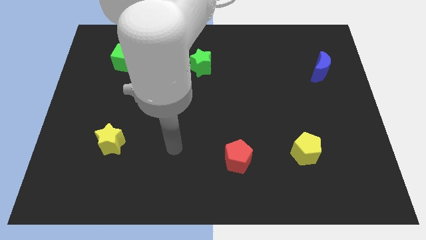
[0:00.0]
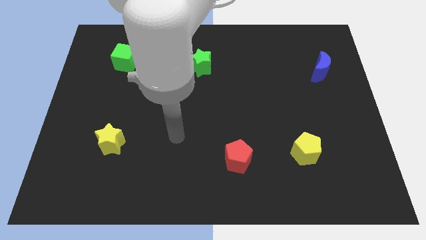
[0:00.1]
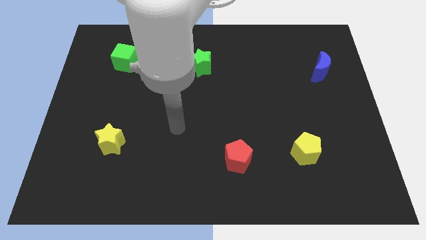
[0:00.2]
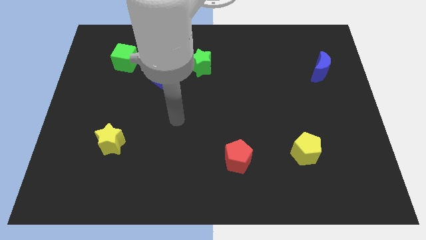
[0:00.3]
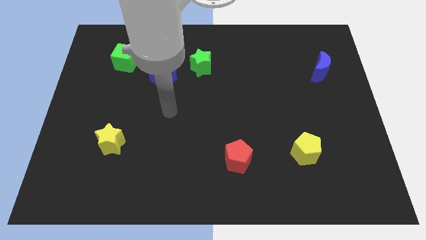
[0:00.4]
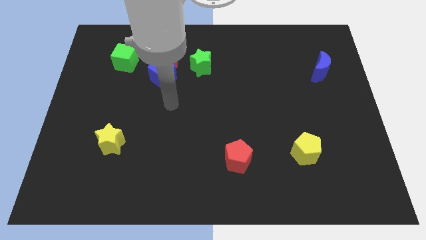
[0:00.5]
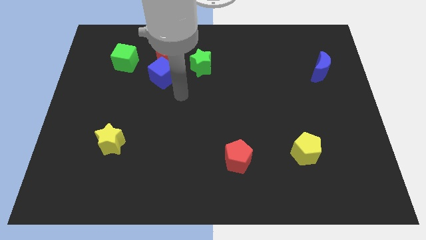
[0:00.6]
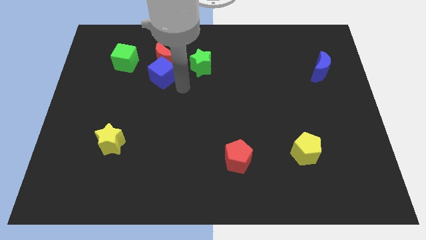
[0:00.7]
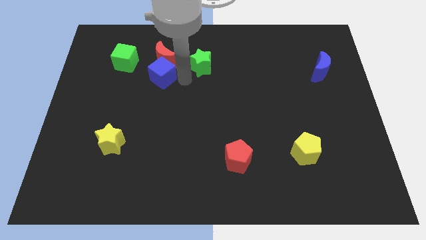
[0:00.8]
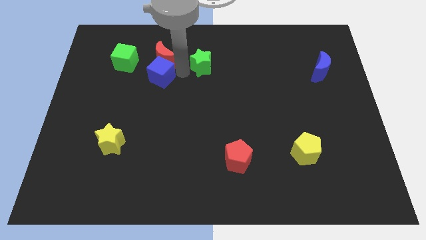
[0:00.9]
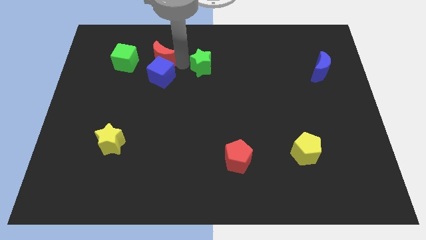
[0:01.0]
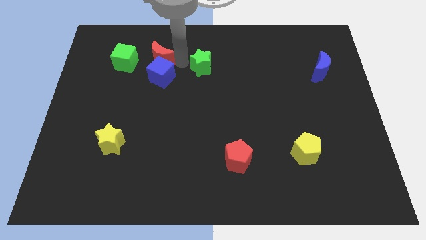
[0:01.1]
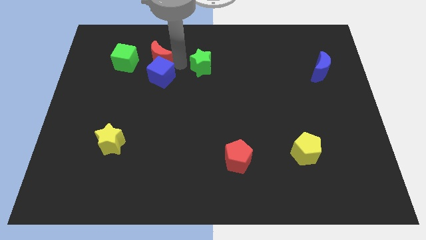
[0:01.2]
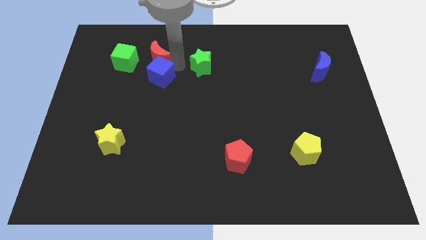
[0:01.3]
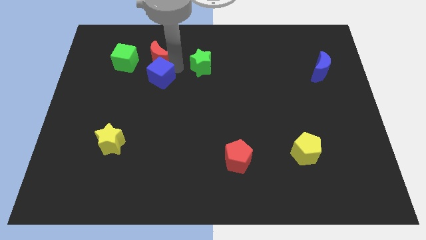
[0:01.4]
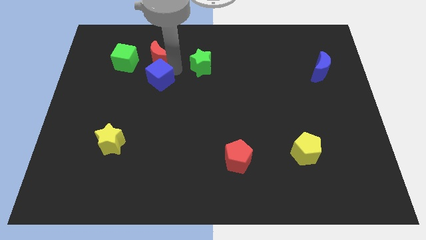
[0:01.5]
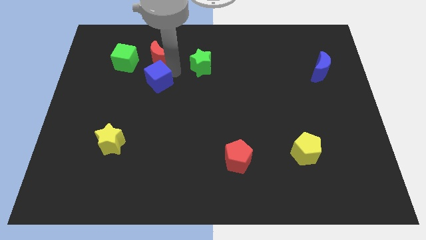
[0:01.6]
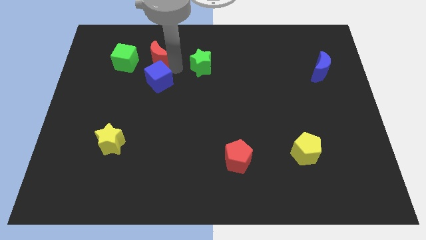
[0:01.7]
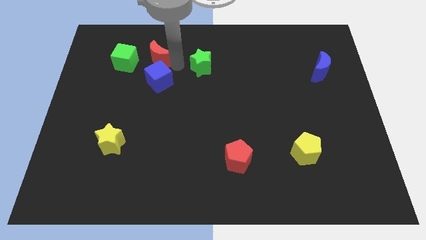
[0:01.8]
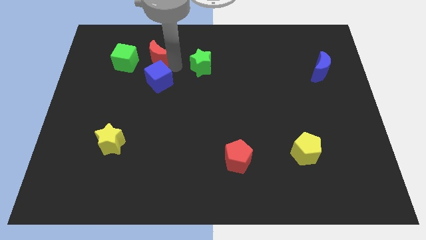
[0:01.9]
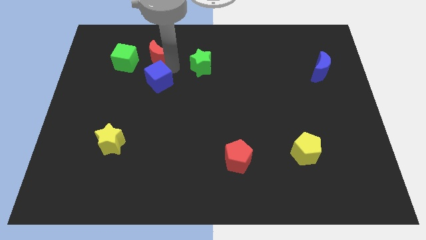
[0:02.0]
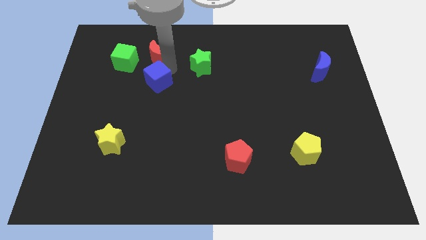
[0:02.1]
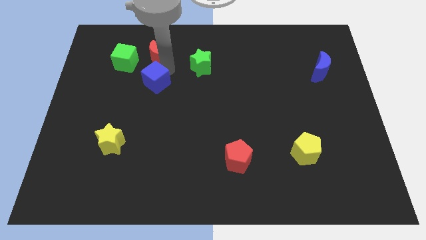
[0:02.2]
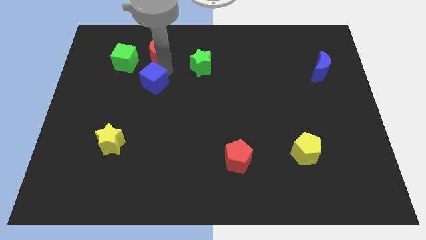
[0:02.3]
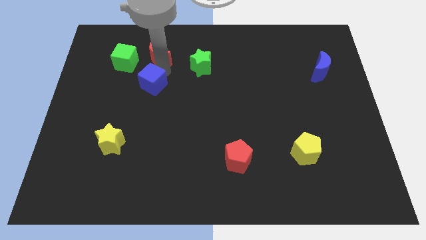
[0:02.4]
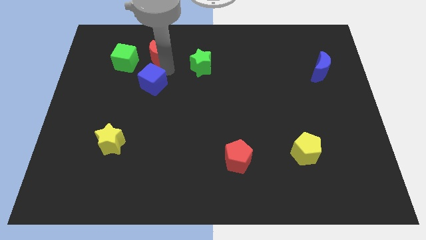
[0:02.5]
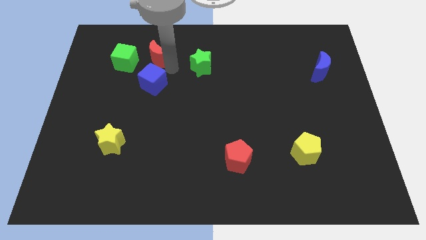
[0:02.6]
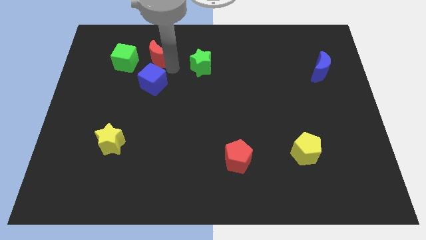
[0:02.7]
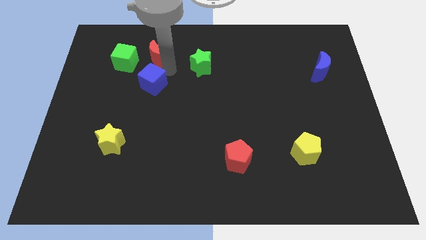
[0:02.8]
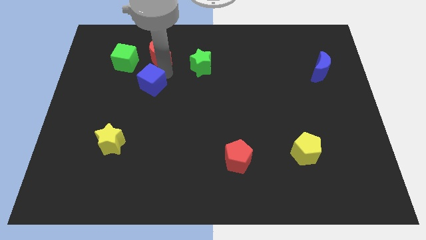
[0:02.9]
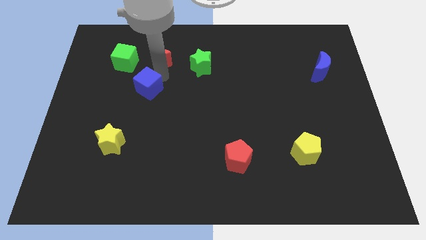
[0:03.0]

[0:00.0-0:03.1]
separate the blue cube from the red moon and green star

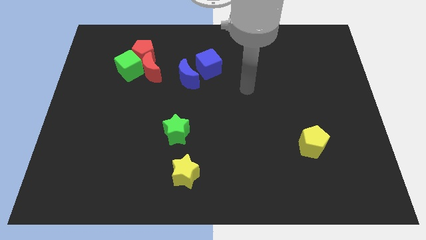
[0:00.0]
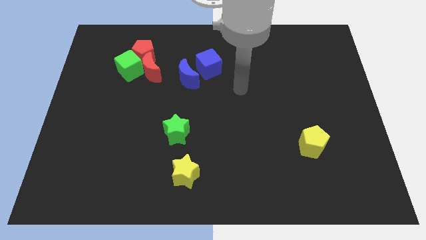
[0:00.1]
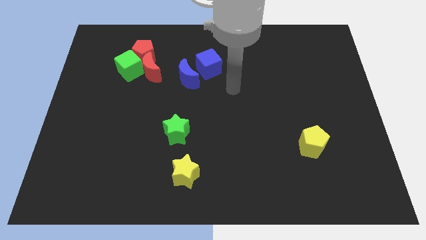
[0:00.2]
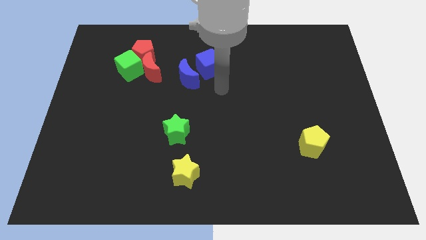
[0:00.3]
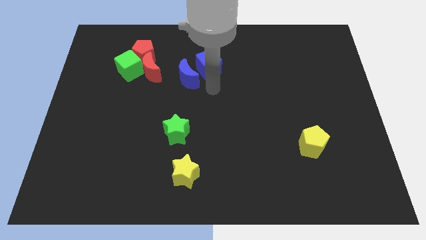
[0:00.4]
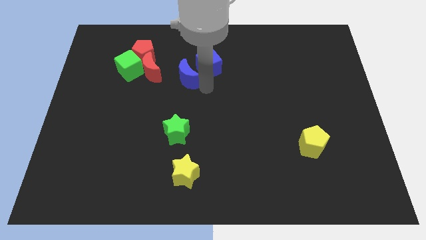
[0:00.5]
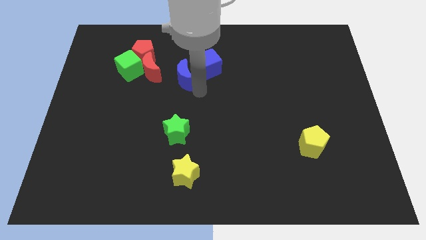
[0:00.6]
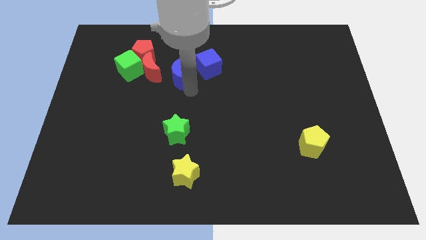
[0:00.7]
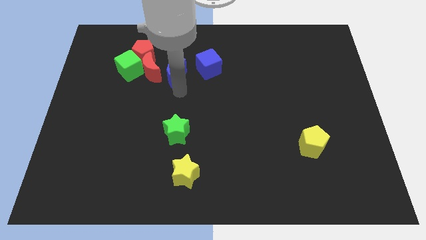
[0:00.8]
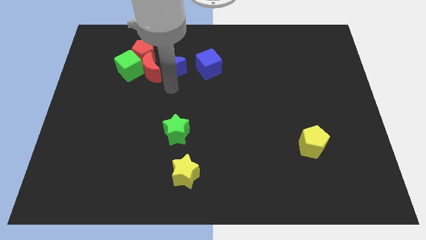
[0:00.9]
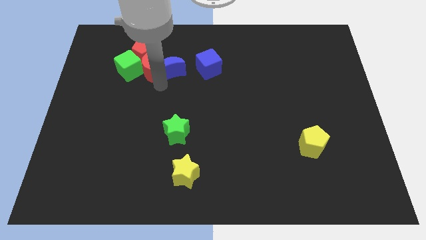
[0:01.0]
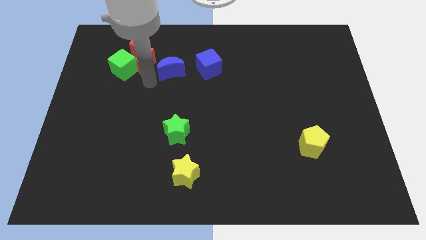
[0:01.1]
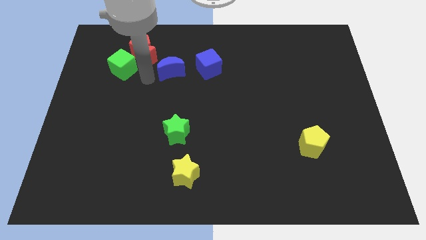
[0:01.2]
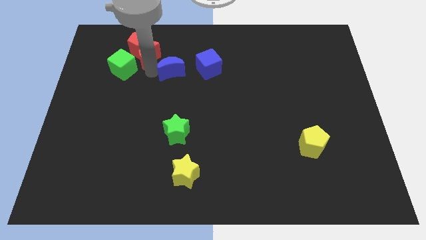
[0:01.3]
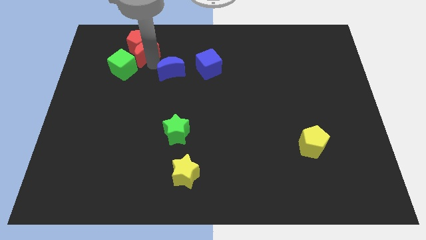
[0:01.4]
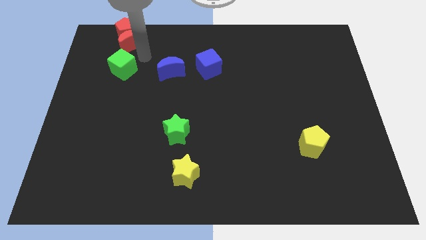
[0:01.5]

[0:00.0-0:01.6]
move the green cube away from the red moon and red pentagon

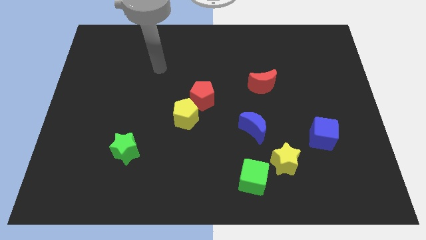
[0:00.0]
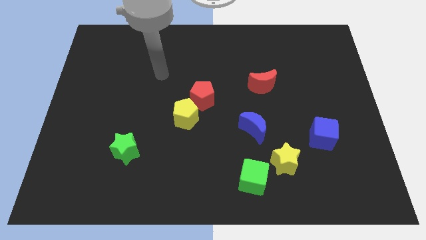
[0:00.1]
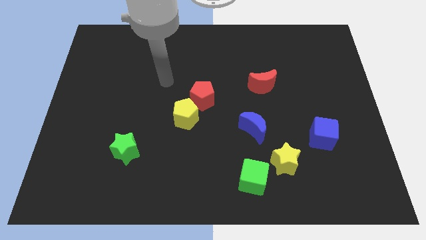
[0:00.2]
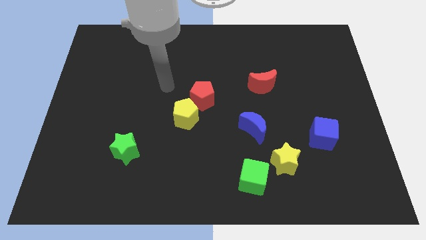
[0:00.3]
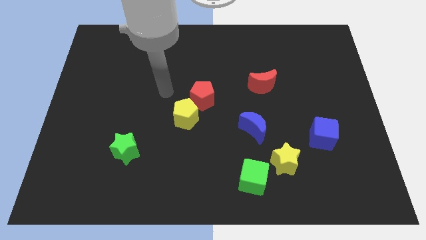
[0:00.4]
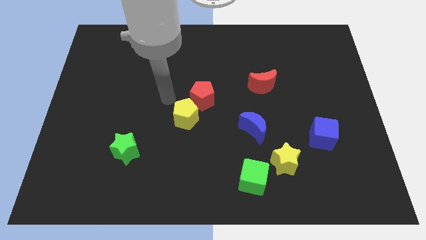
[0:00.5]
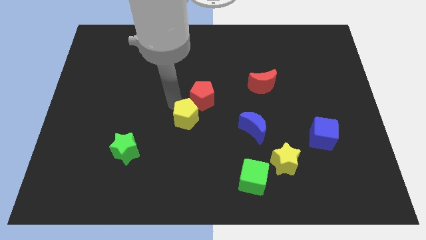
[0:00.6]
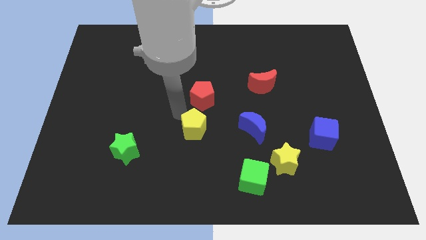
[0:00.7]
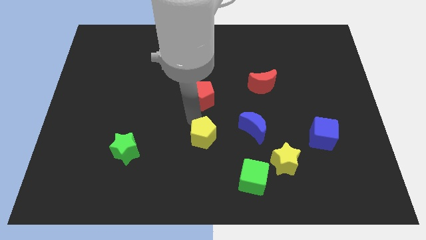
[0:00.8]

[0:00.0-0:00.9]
pull the red pentagon apart from the yellow pentagon

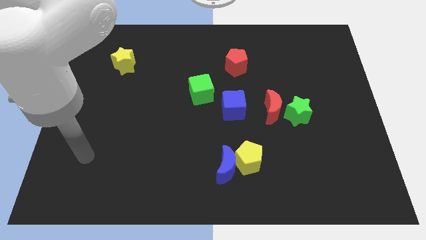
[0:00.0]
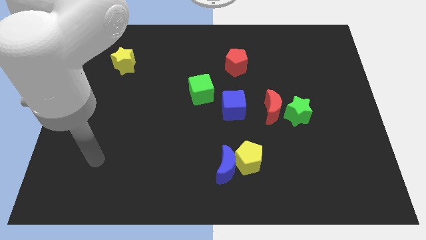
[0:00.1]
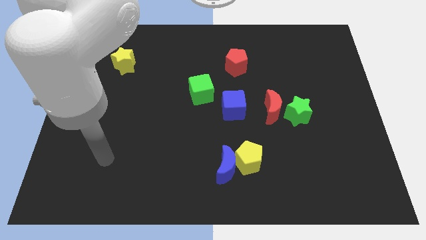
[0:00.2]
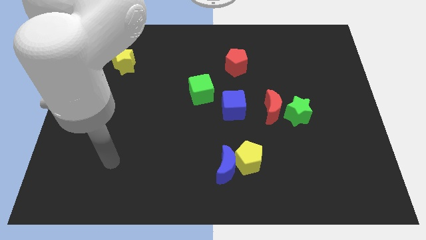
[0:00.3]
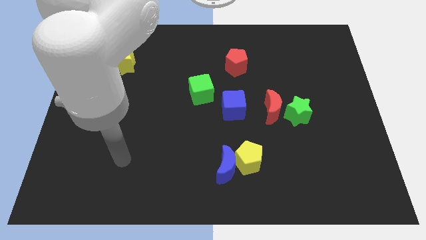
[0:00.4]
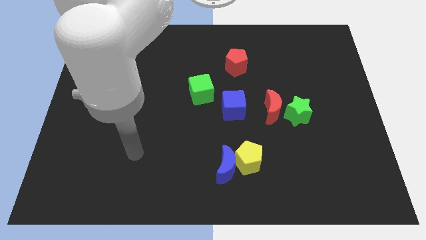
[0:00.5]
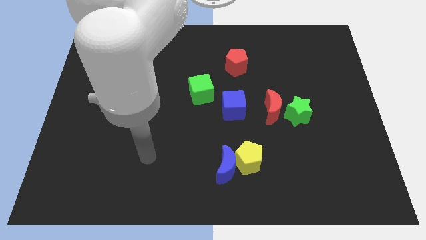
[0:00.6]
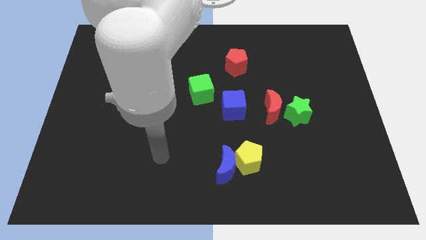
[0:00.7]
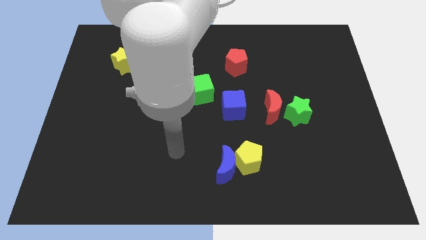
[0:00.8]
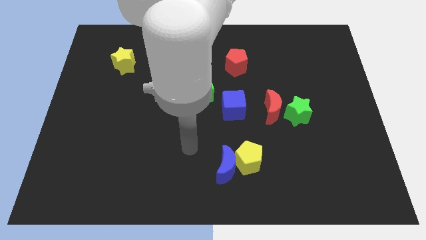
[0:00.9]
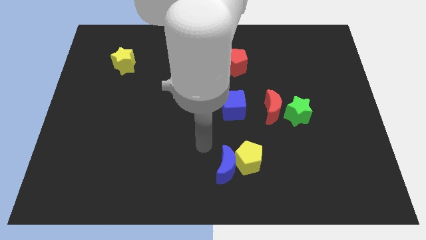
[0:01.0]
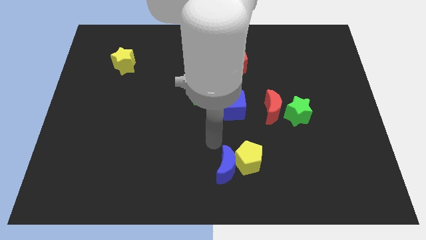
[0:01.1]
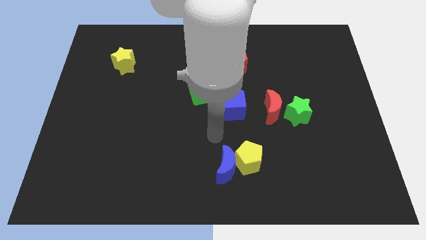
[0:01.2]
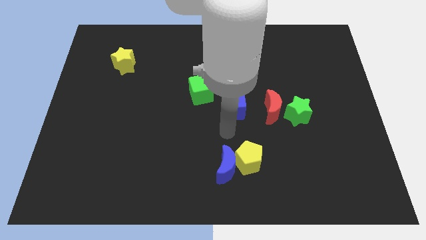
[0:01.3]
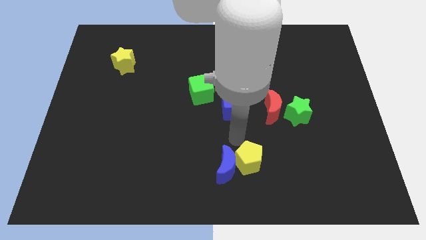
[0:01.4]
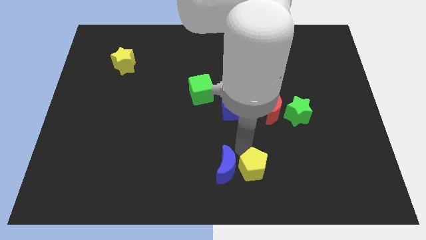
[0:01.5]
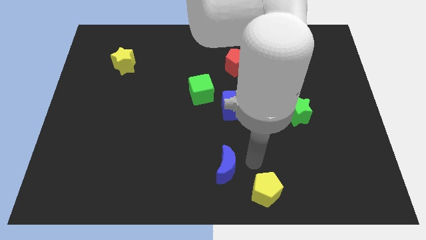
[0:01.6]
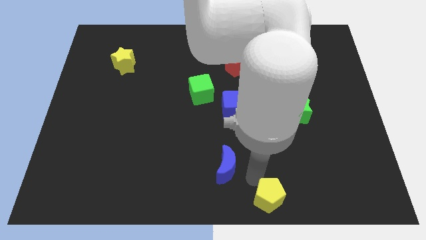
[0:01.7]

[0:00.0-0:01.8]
move the blue moon away from the yellow pentagon

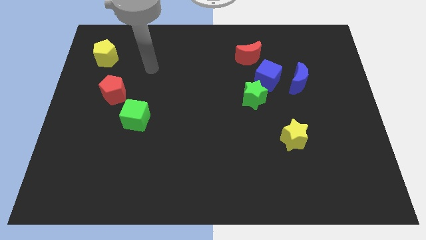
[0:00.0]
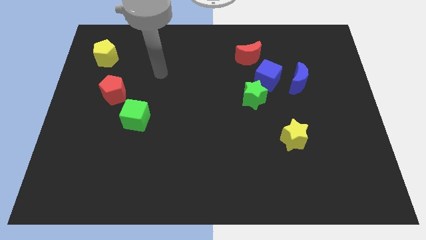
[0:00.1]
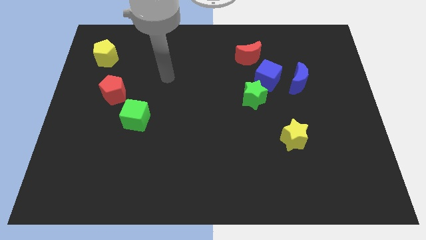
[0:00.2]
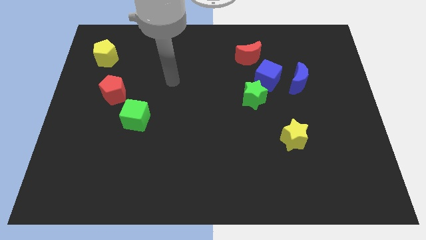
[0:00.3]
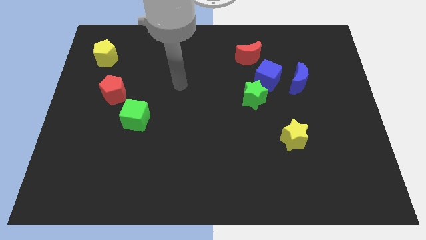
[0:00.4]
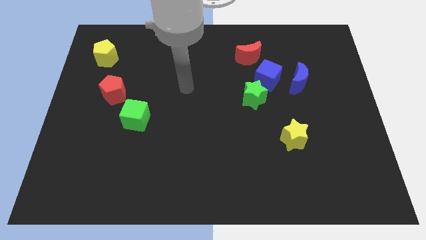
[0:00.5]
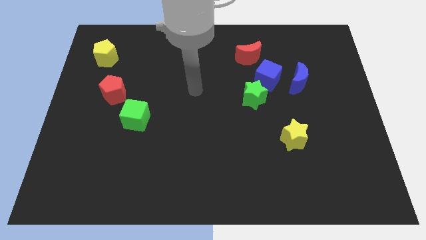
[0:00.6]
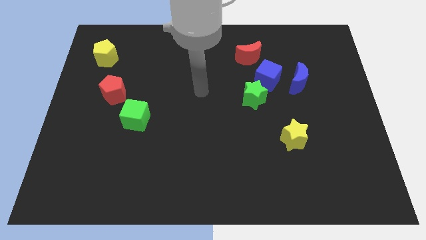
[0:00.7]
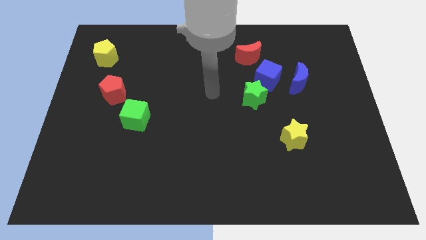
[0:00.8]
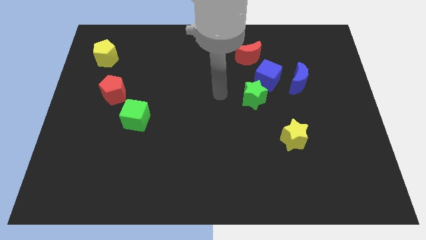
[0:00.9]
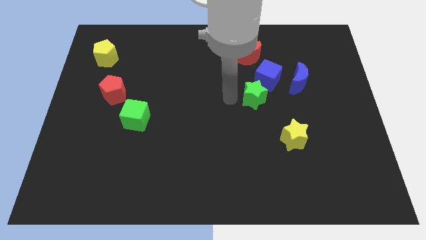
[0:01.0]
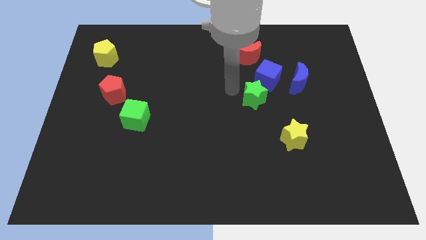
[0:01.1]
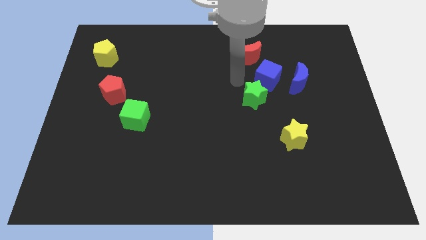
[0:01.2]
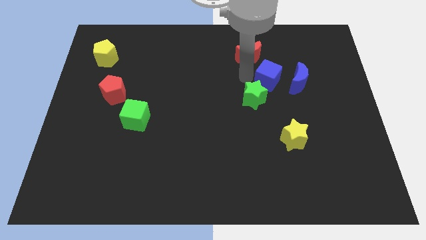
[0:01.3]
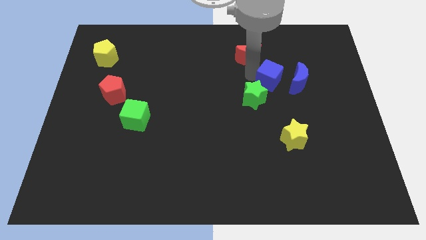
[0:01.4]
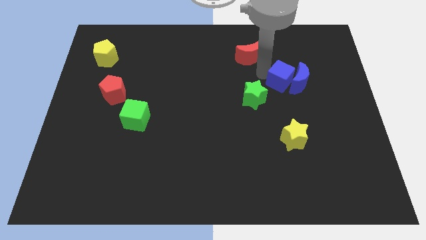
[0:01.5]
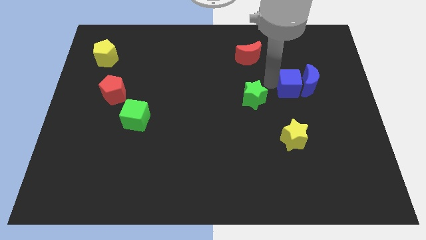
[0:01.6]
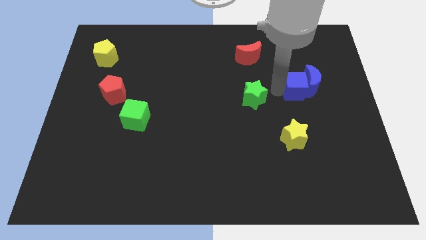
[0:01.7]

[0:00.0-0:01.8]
move the green star away from the blue cube

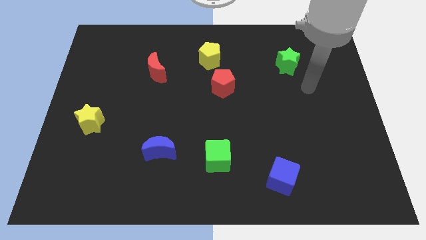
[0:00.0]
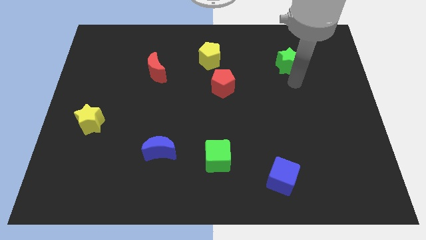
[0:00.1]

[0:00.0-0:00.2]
separate the red pentagon from the yellow pentagon
